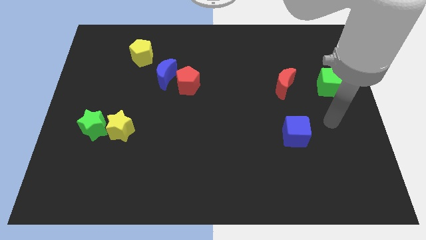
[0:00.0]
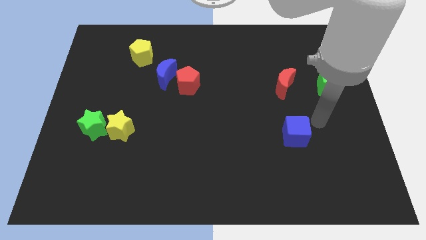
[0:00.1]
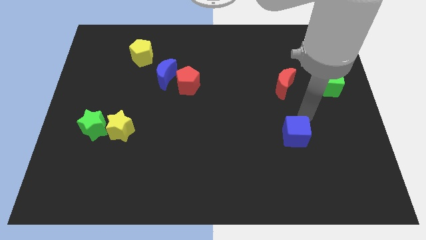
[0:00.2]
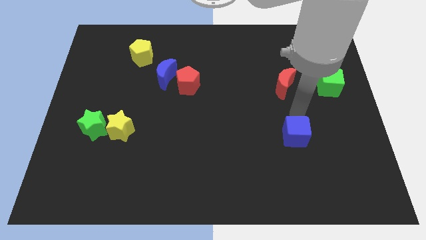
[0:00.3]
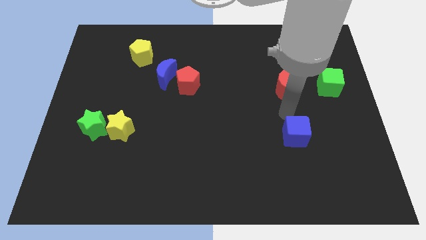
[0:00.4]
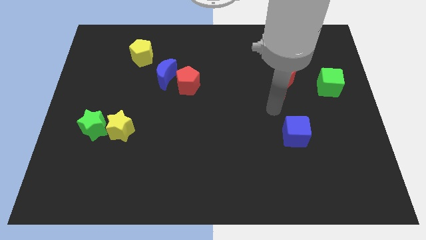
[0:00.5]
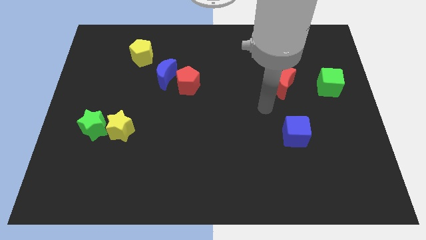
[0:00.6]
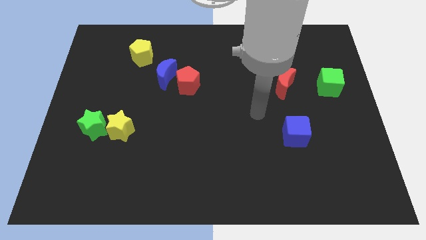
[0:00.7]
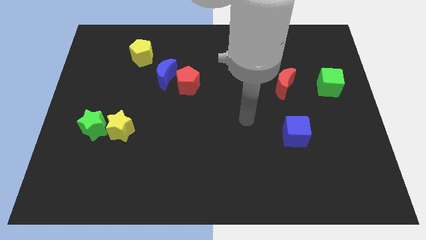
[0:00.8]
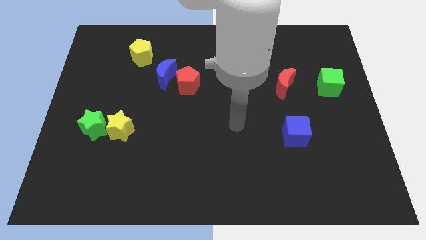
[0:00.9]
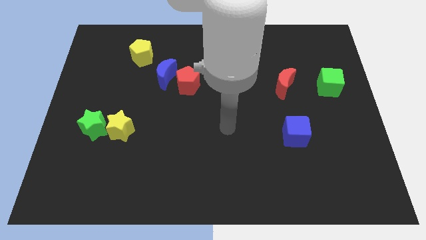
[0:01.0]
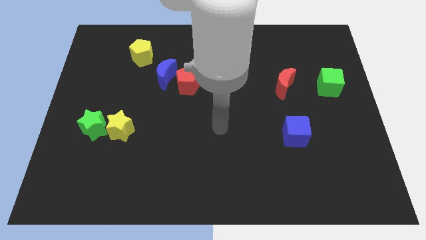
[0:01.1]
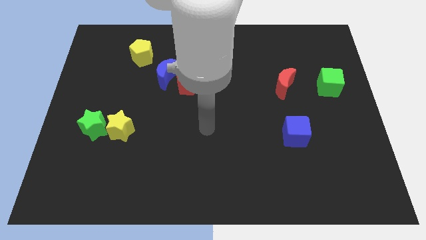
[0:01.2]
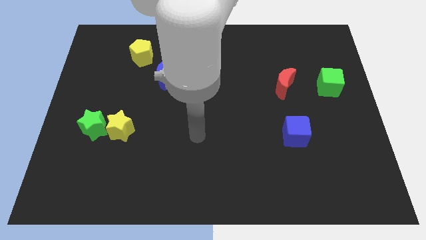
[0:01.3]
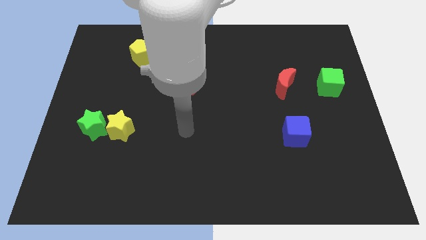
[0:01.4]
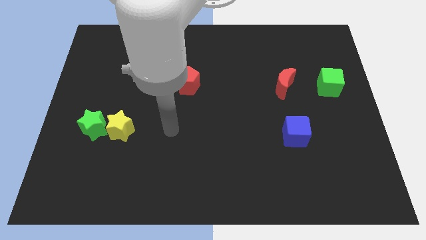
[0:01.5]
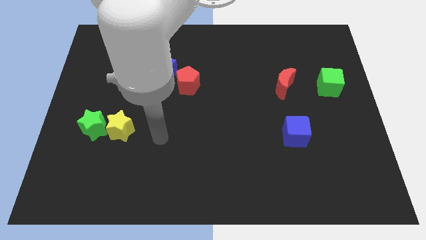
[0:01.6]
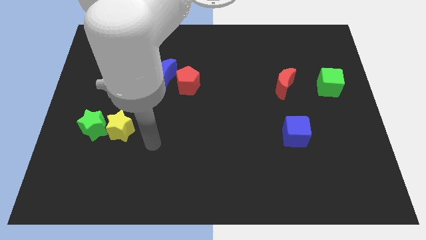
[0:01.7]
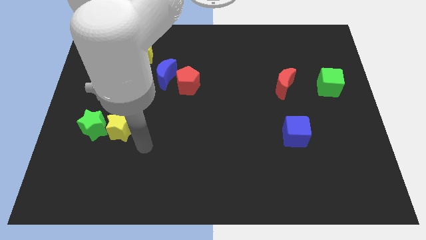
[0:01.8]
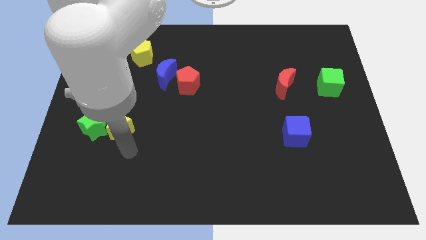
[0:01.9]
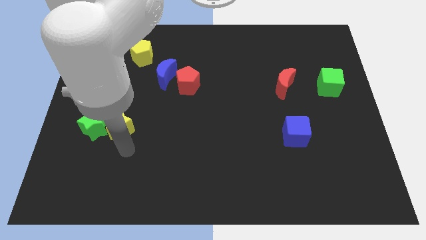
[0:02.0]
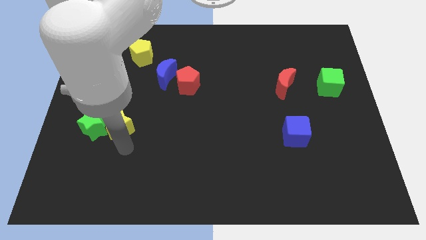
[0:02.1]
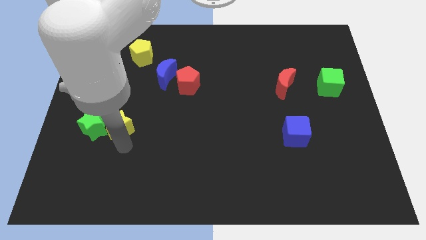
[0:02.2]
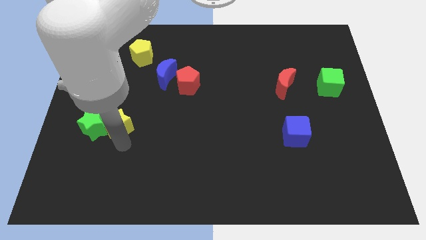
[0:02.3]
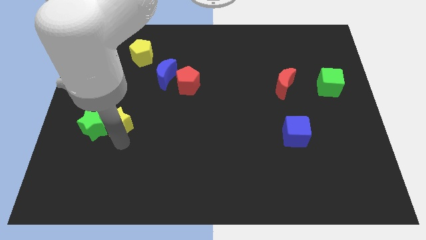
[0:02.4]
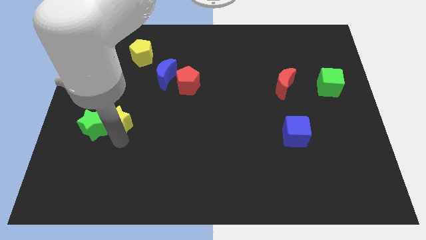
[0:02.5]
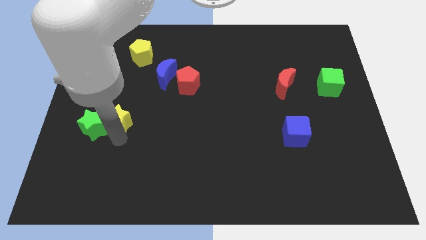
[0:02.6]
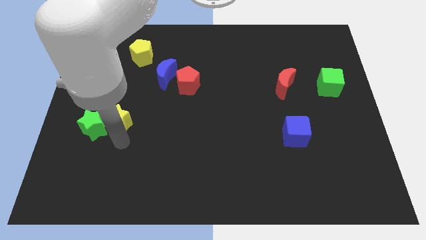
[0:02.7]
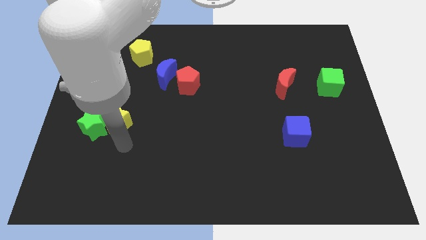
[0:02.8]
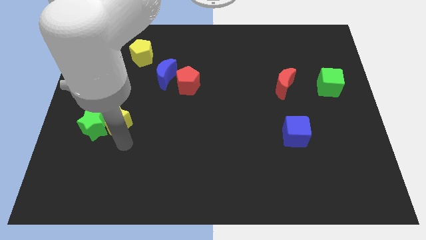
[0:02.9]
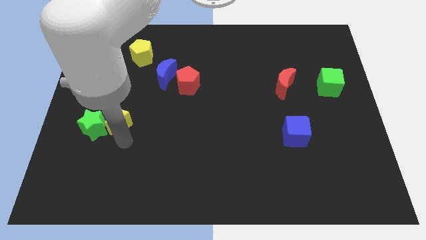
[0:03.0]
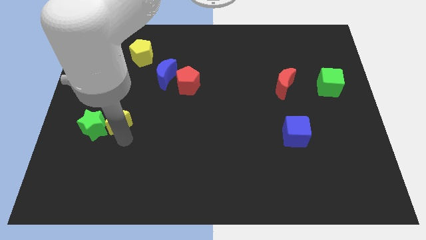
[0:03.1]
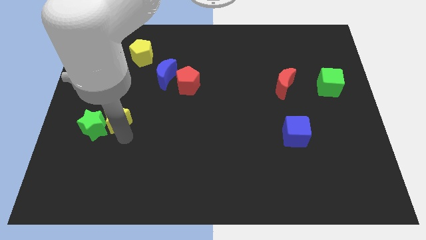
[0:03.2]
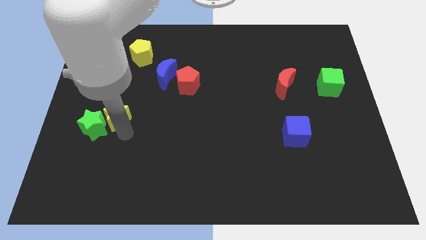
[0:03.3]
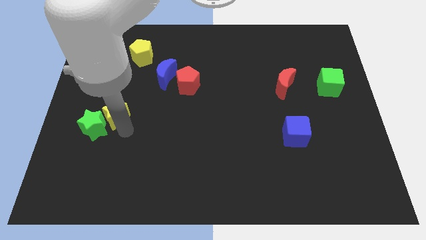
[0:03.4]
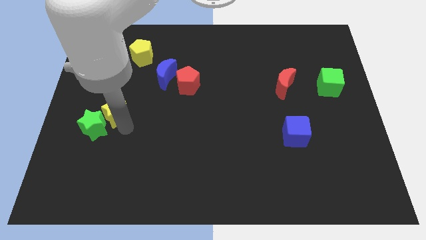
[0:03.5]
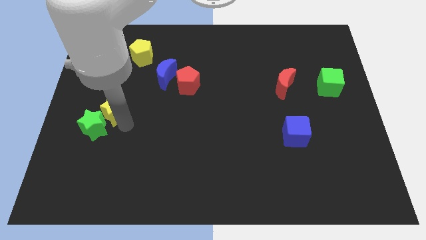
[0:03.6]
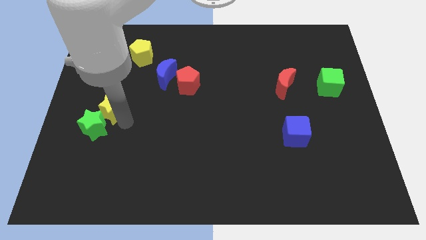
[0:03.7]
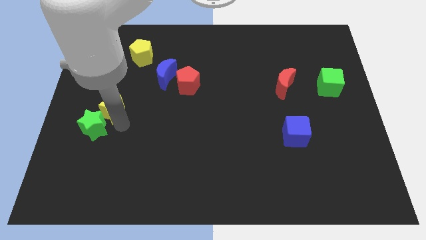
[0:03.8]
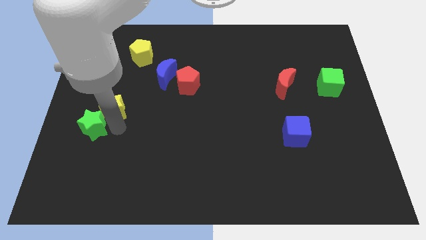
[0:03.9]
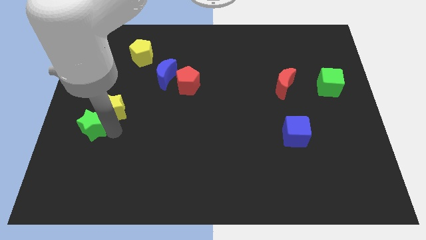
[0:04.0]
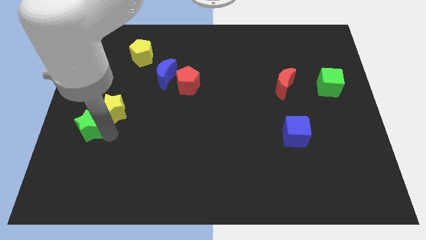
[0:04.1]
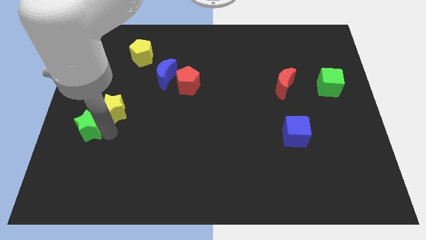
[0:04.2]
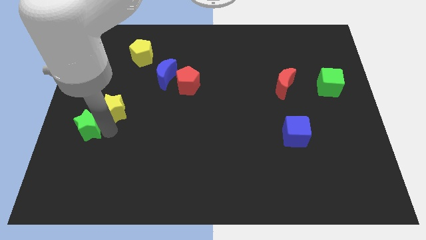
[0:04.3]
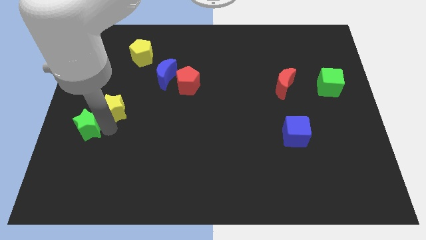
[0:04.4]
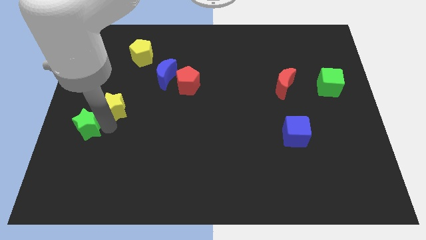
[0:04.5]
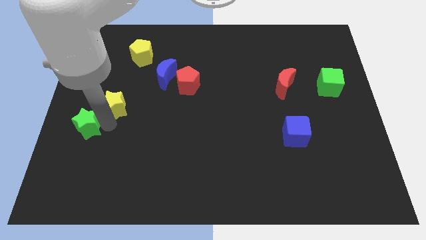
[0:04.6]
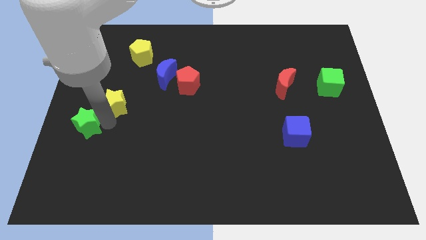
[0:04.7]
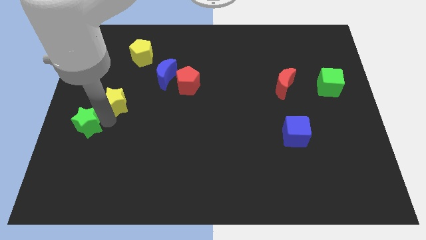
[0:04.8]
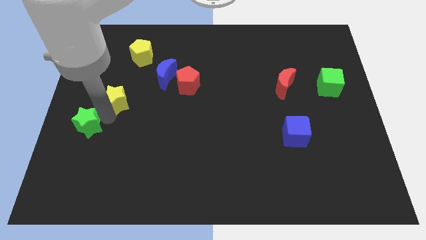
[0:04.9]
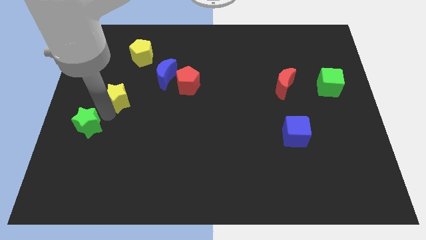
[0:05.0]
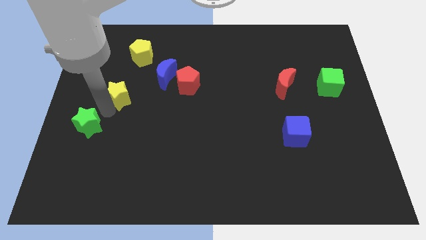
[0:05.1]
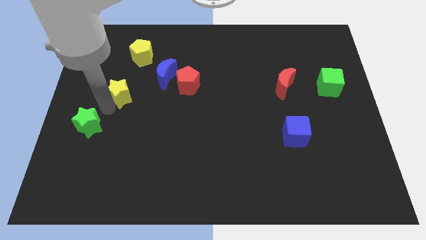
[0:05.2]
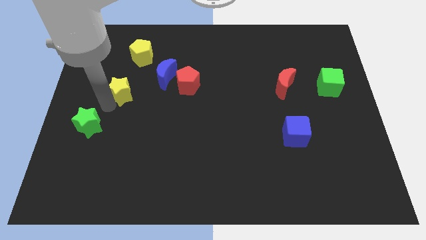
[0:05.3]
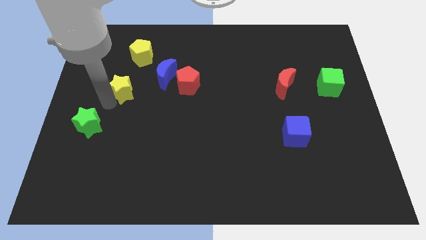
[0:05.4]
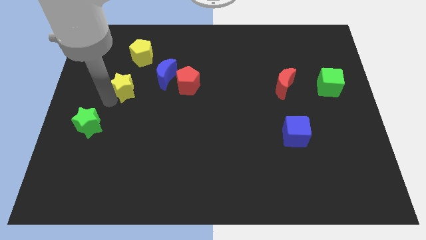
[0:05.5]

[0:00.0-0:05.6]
put the yellow star just left of the blue moon

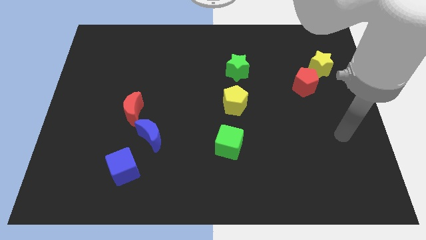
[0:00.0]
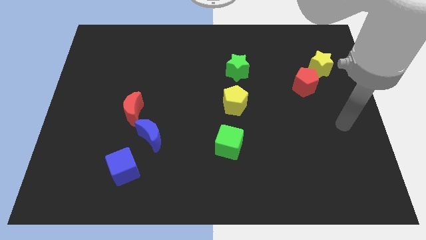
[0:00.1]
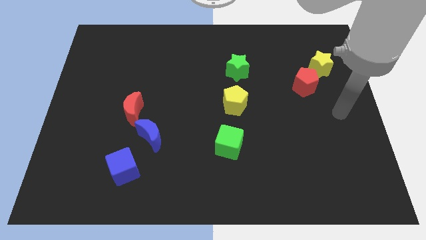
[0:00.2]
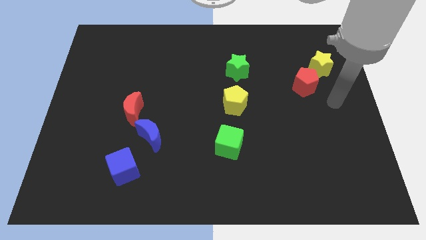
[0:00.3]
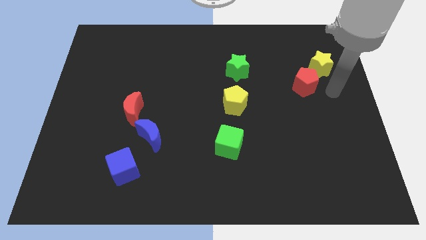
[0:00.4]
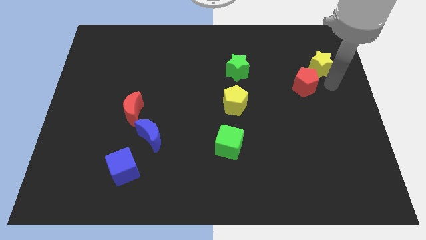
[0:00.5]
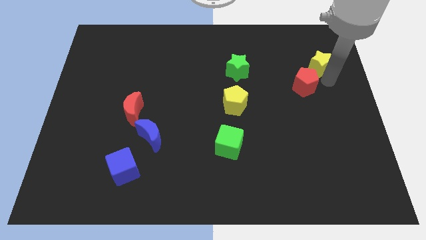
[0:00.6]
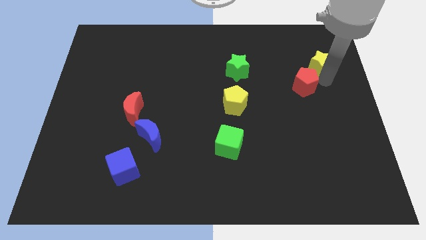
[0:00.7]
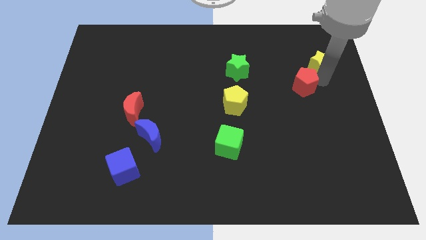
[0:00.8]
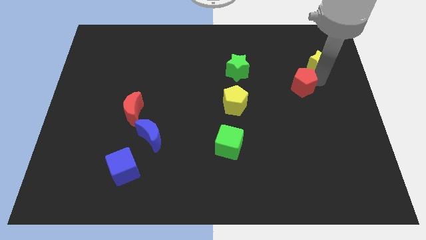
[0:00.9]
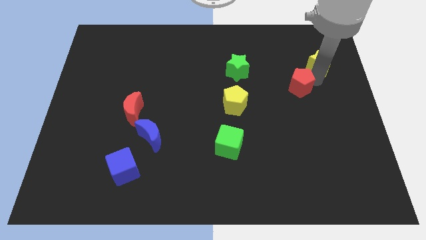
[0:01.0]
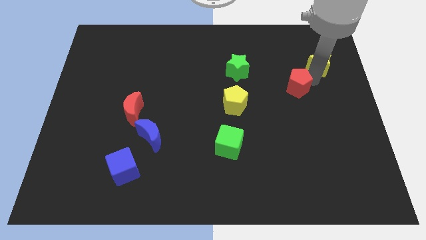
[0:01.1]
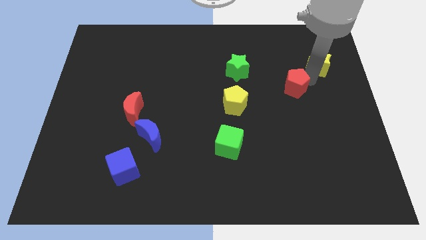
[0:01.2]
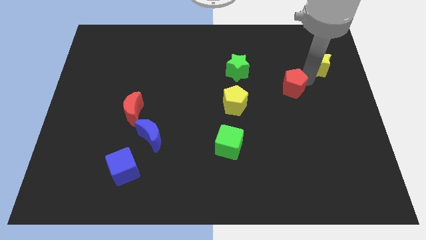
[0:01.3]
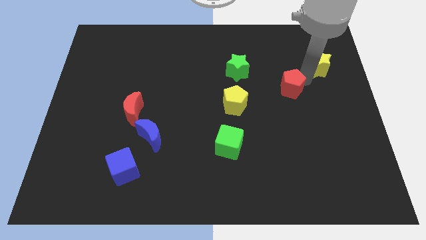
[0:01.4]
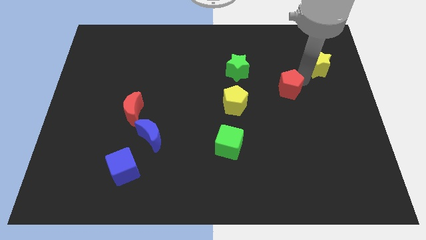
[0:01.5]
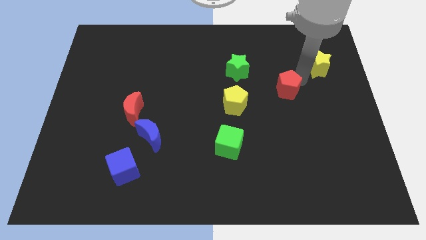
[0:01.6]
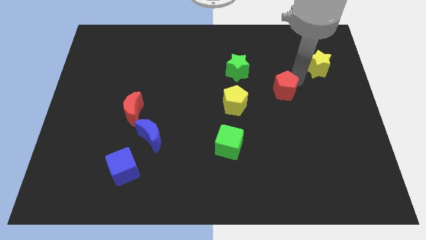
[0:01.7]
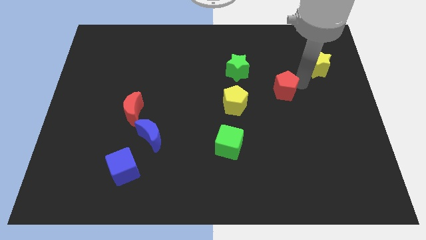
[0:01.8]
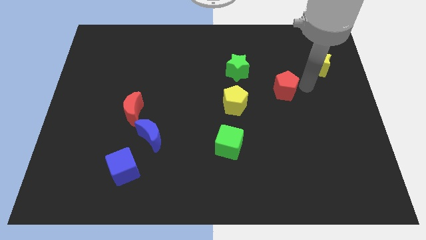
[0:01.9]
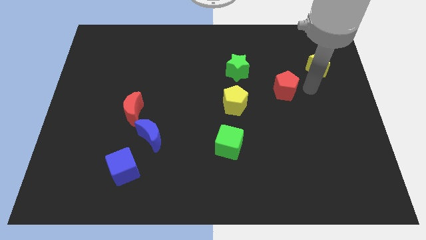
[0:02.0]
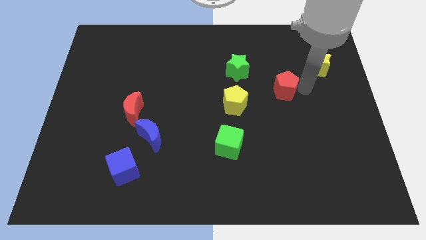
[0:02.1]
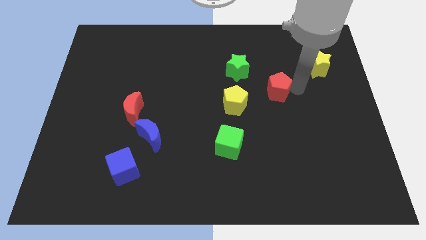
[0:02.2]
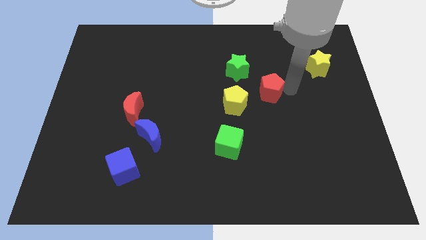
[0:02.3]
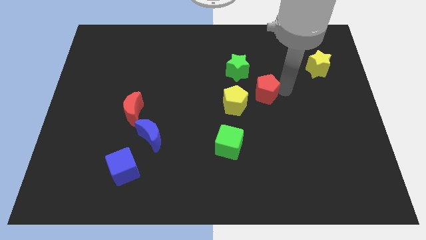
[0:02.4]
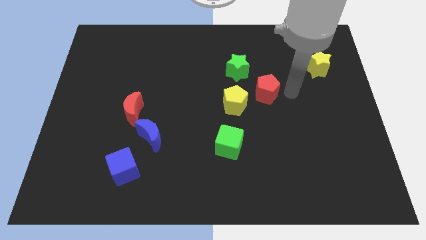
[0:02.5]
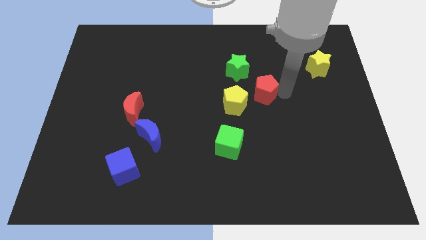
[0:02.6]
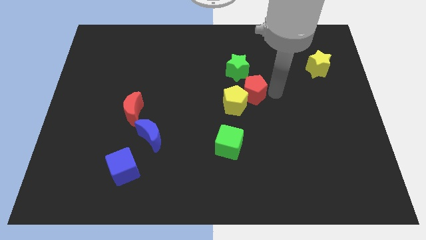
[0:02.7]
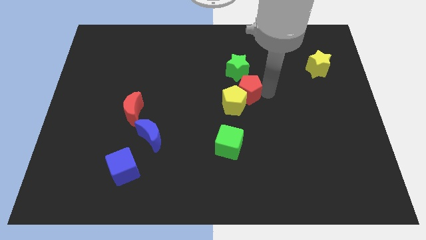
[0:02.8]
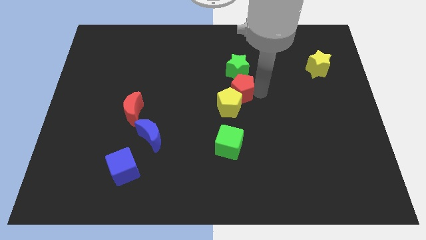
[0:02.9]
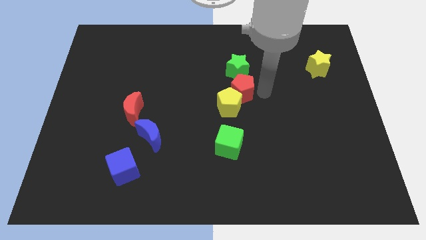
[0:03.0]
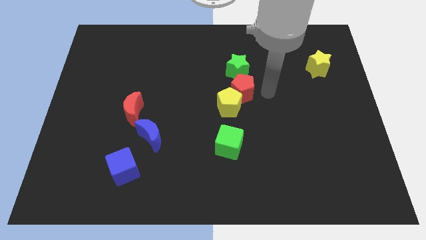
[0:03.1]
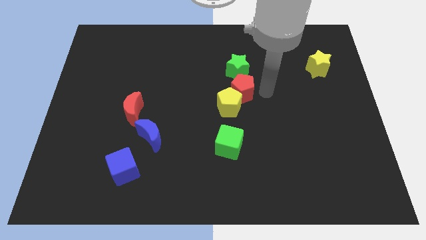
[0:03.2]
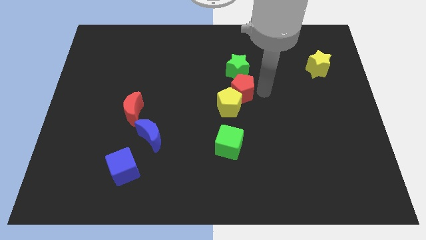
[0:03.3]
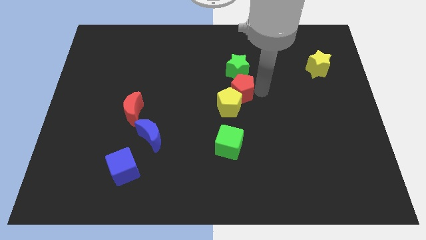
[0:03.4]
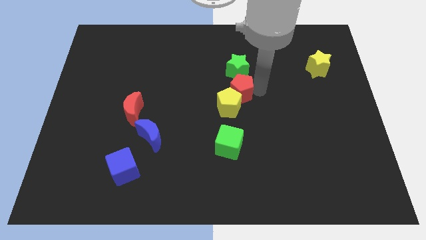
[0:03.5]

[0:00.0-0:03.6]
put the red pentagon above the green cube
